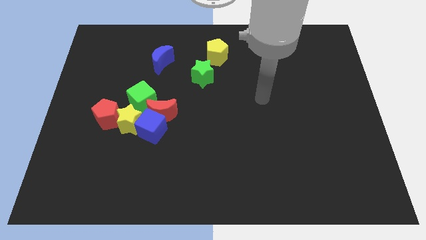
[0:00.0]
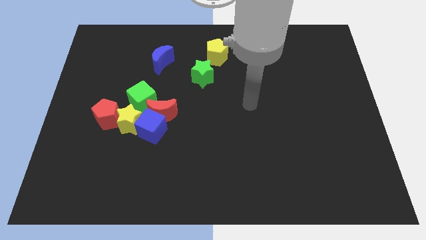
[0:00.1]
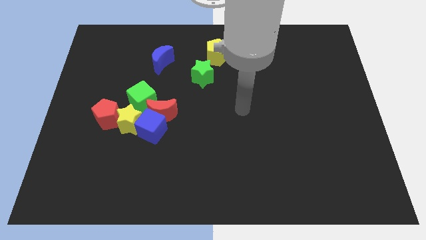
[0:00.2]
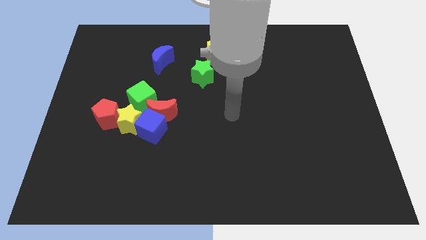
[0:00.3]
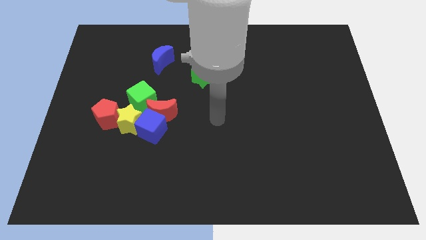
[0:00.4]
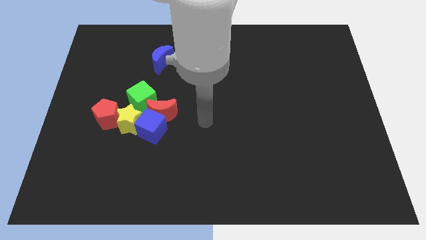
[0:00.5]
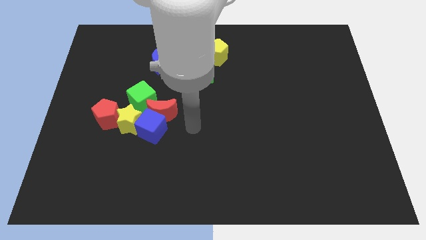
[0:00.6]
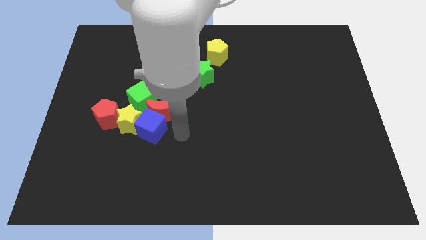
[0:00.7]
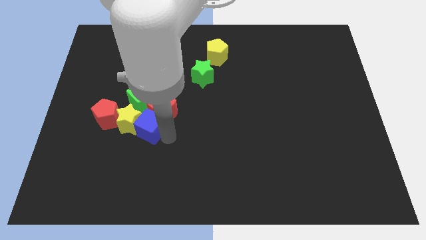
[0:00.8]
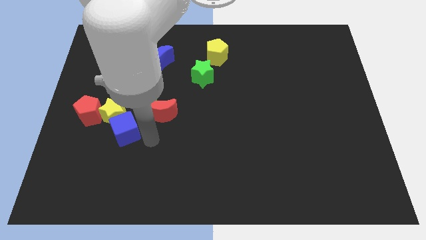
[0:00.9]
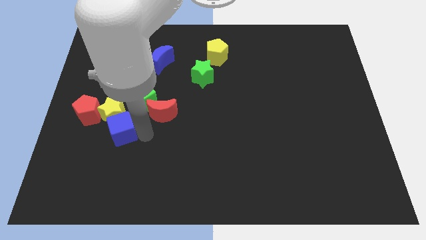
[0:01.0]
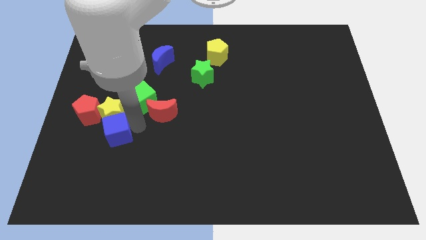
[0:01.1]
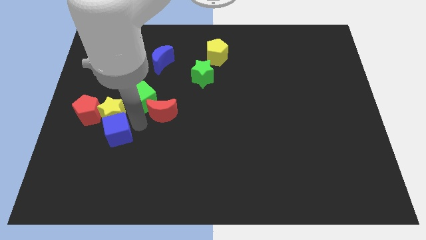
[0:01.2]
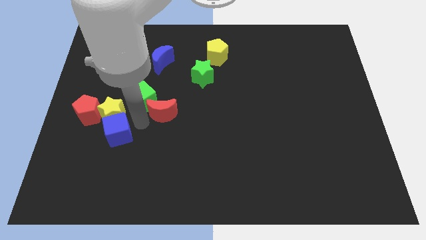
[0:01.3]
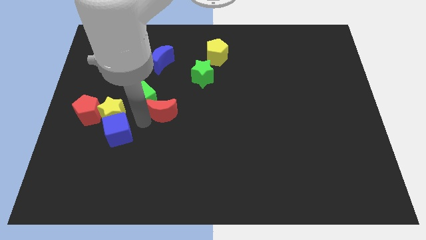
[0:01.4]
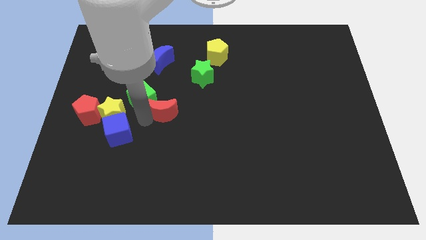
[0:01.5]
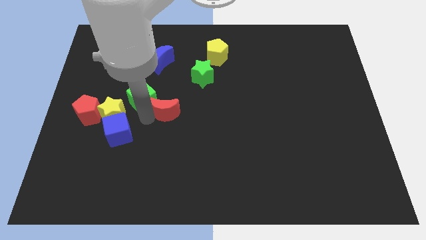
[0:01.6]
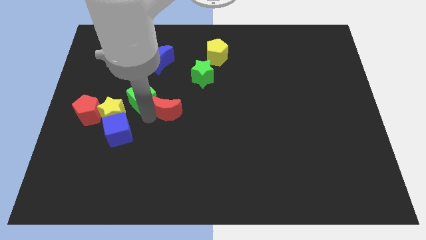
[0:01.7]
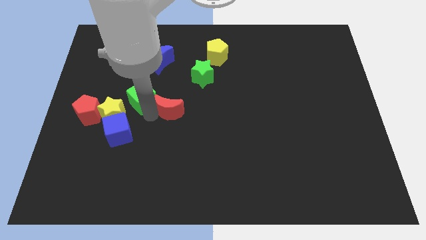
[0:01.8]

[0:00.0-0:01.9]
pull the red moon apart from the group of blocks

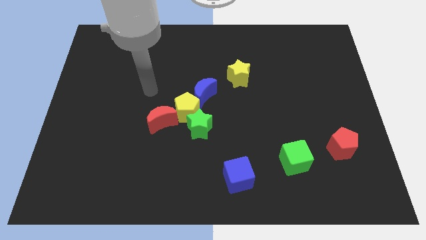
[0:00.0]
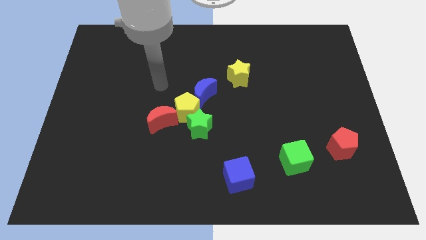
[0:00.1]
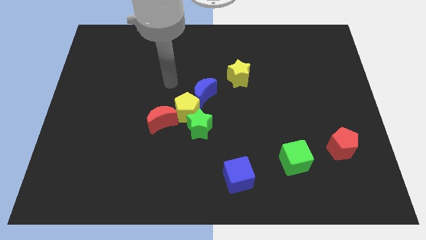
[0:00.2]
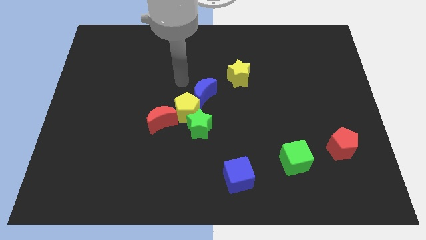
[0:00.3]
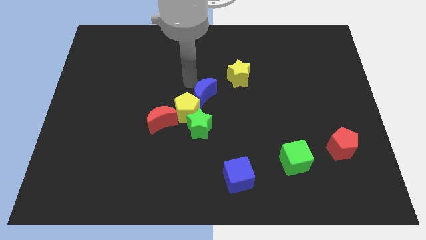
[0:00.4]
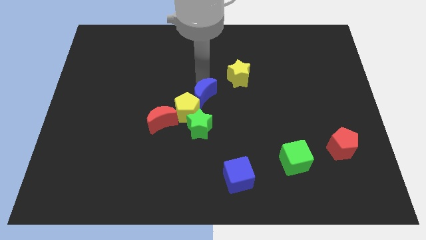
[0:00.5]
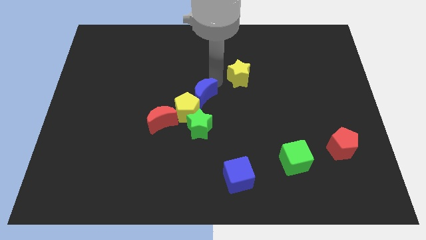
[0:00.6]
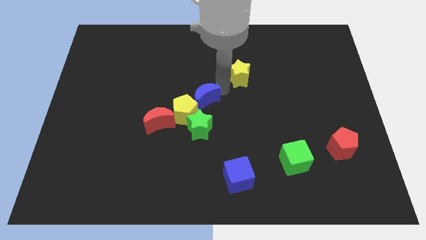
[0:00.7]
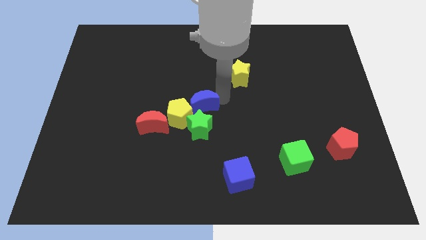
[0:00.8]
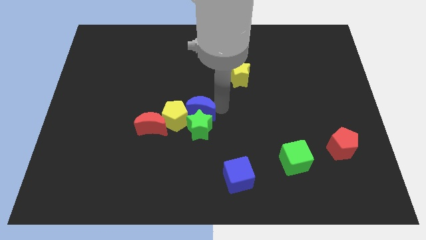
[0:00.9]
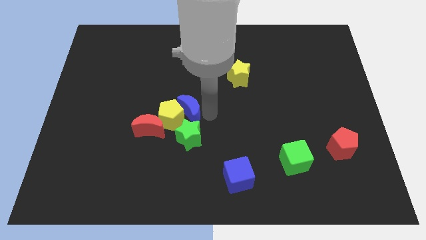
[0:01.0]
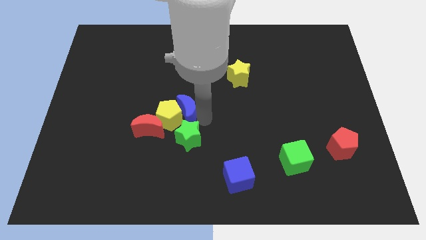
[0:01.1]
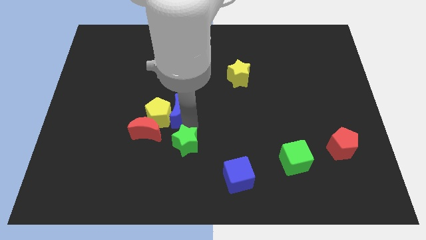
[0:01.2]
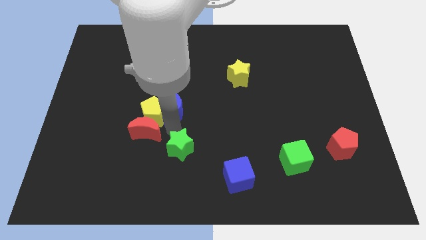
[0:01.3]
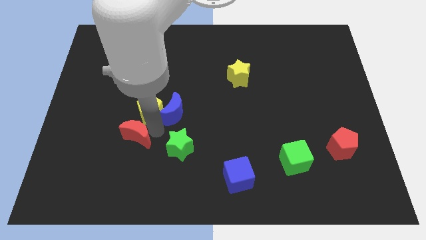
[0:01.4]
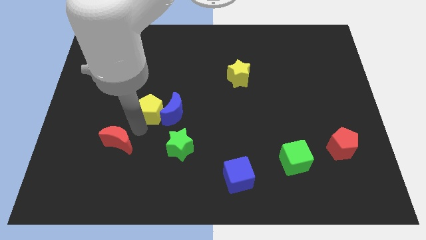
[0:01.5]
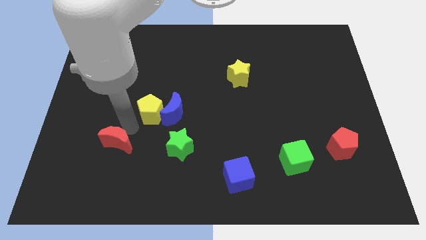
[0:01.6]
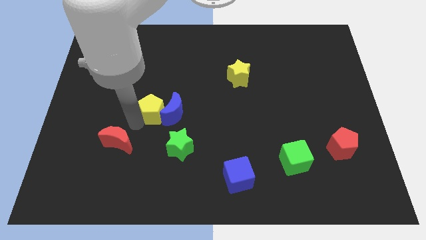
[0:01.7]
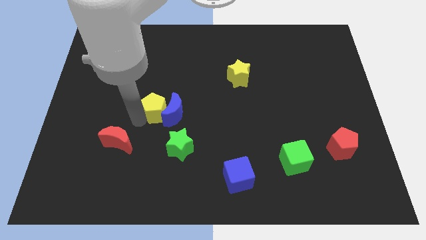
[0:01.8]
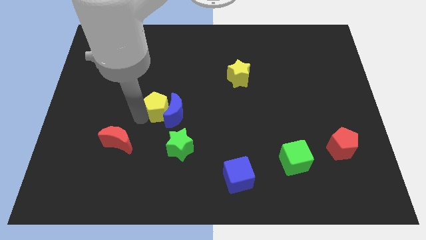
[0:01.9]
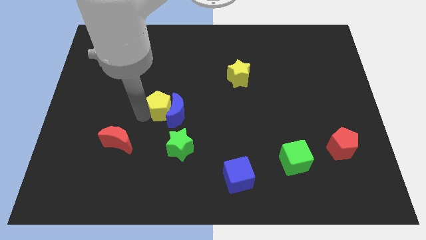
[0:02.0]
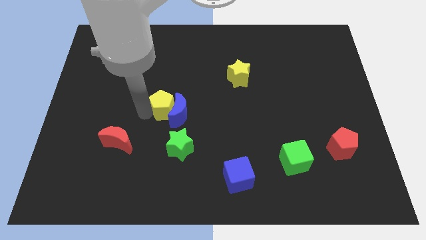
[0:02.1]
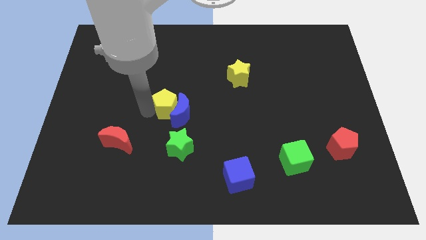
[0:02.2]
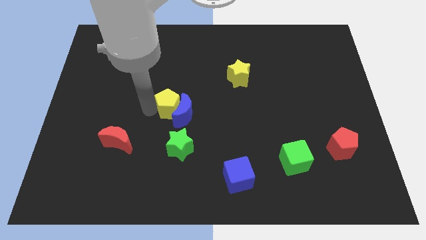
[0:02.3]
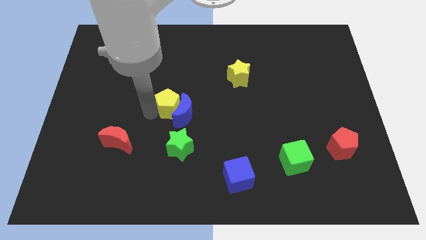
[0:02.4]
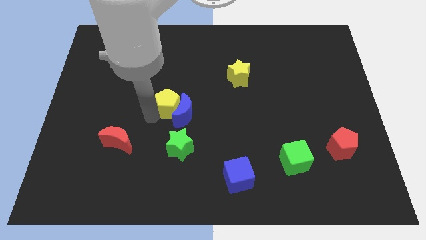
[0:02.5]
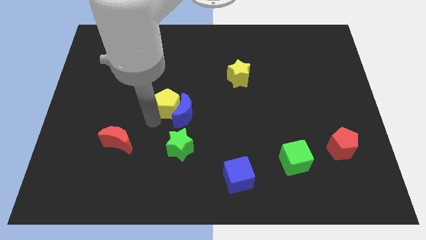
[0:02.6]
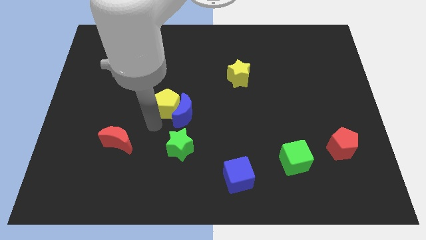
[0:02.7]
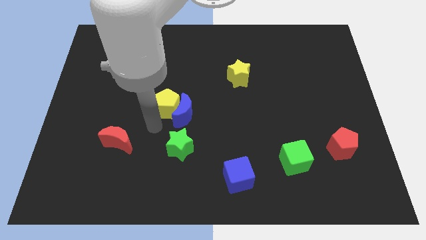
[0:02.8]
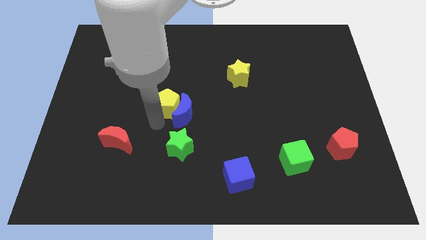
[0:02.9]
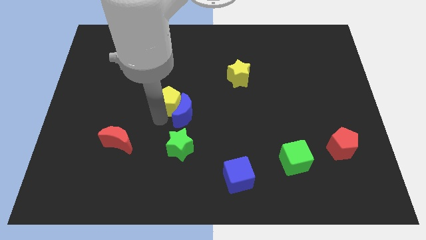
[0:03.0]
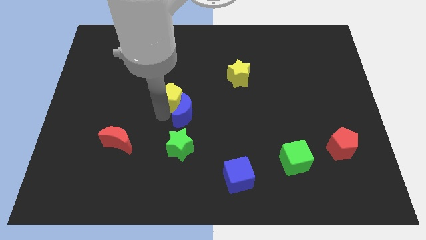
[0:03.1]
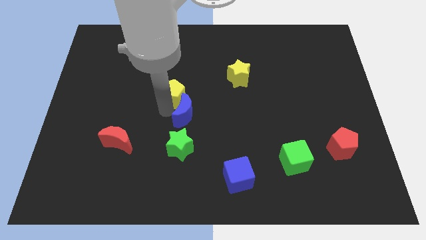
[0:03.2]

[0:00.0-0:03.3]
separate the yellow pentagon from the group of blocks

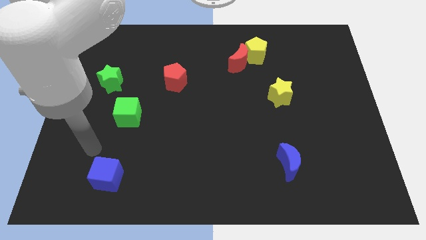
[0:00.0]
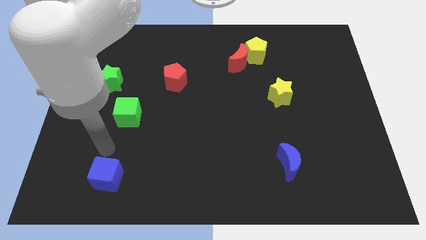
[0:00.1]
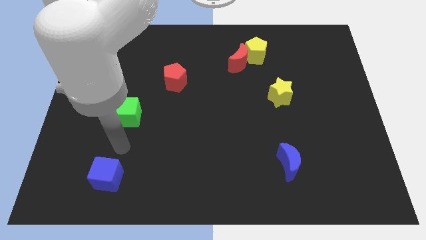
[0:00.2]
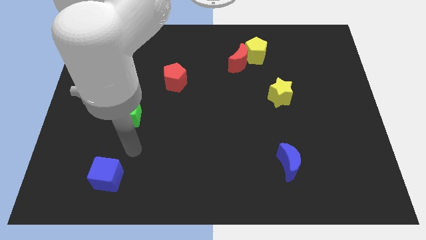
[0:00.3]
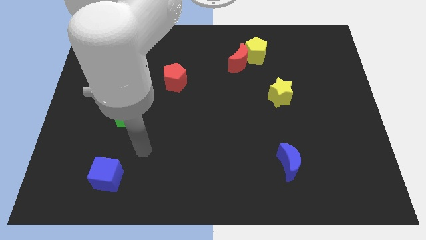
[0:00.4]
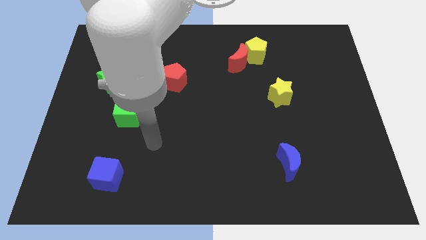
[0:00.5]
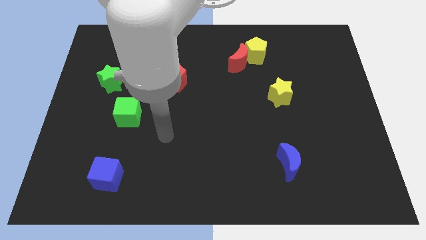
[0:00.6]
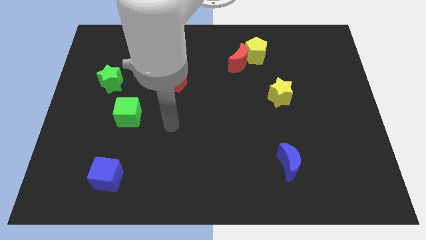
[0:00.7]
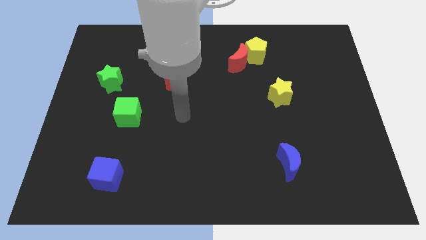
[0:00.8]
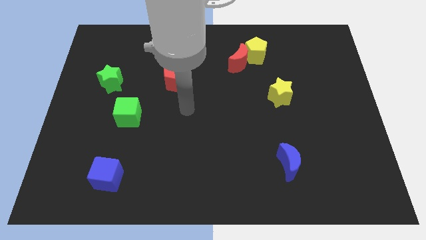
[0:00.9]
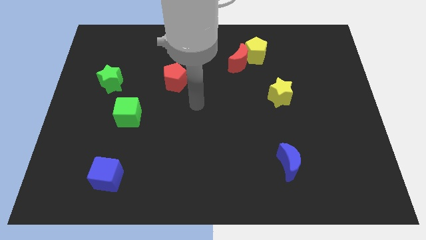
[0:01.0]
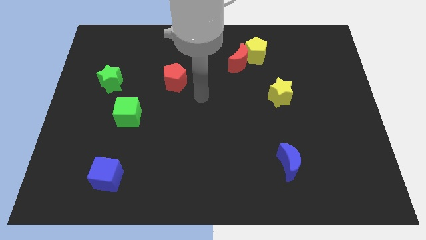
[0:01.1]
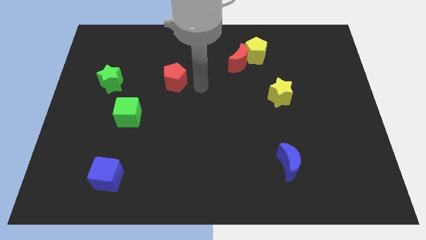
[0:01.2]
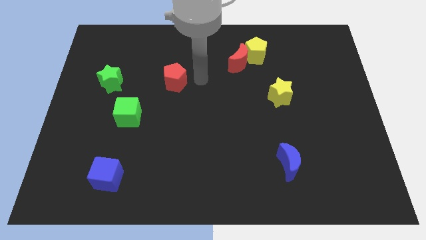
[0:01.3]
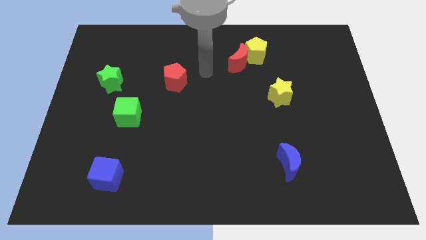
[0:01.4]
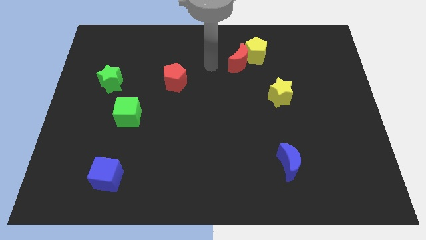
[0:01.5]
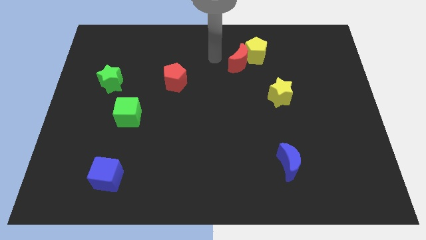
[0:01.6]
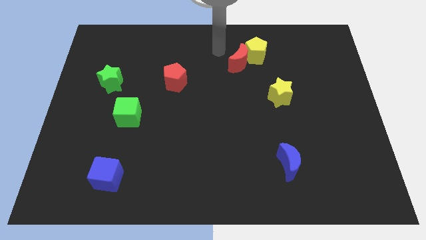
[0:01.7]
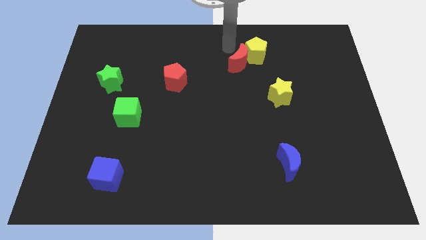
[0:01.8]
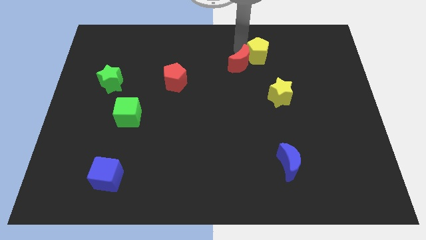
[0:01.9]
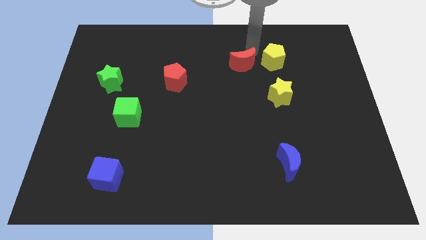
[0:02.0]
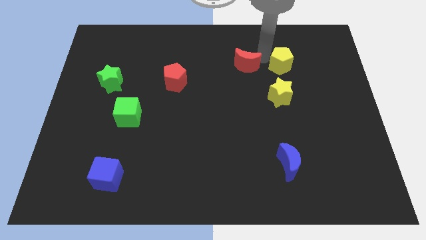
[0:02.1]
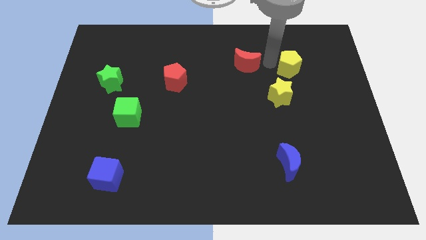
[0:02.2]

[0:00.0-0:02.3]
move the red moon away from the yellow pentagon

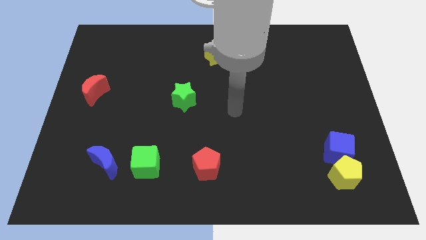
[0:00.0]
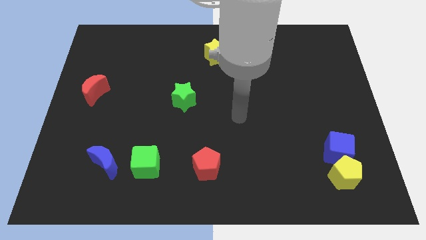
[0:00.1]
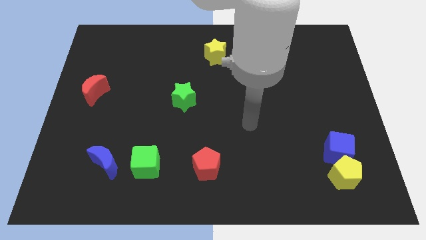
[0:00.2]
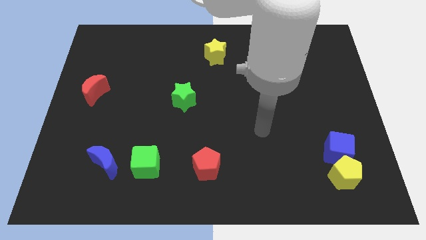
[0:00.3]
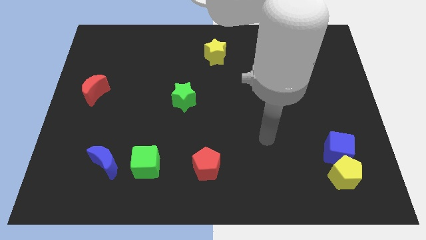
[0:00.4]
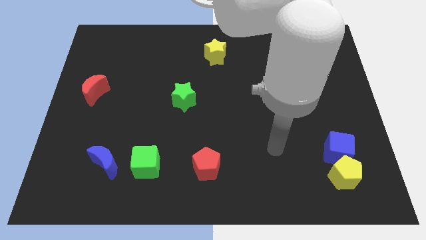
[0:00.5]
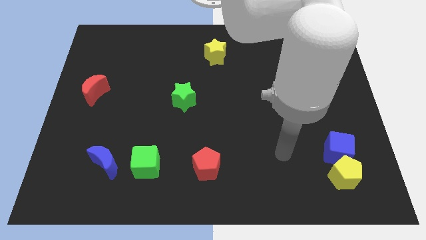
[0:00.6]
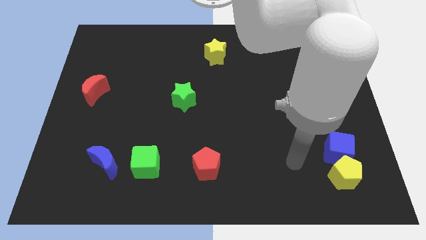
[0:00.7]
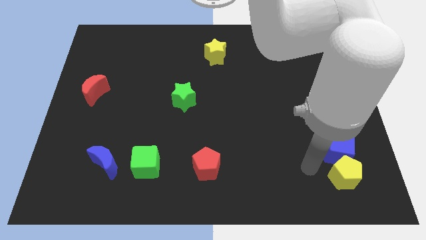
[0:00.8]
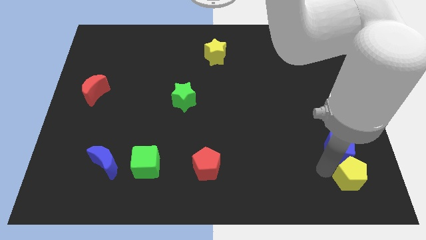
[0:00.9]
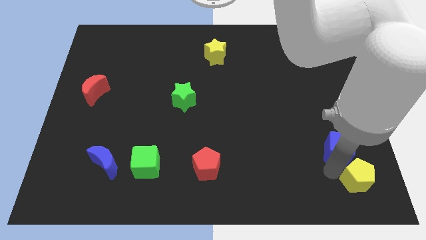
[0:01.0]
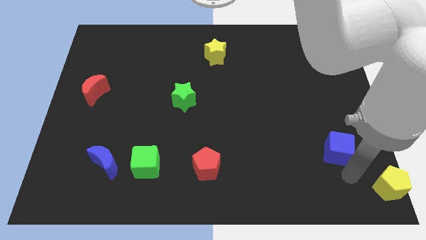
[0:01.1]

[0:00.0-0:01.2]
separate the blue cube from the yellow pentagon

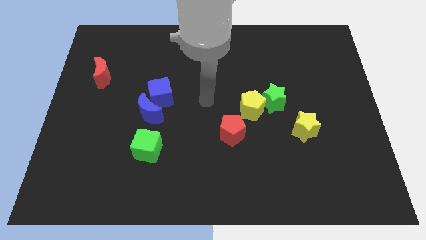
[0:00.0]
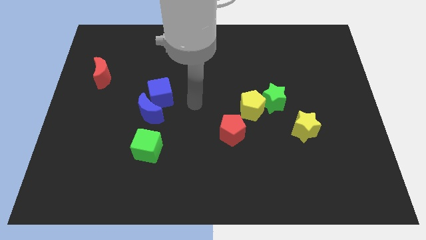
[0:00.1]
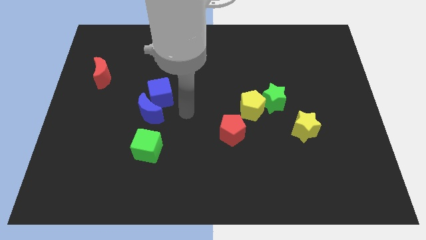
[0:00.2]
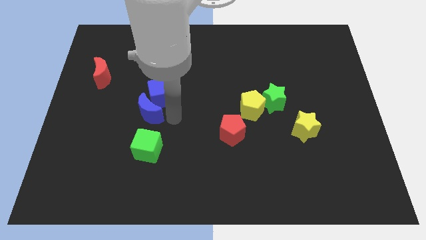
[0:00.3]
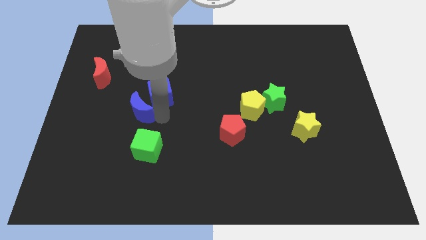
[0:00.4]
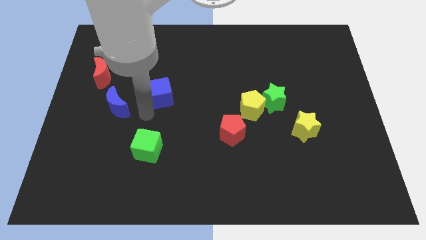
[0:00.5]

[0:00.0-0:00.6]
separate the blue cube from the blue moon
